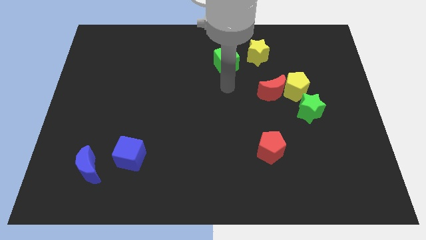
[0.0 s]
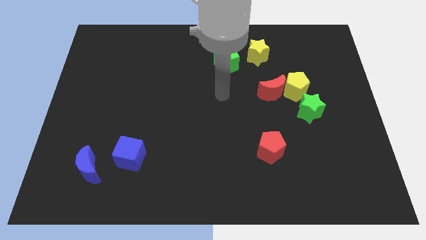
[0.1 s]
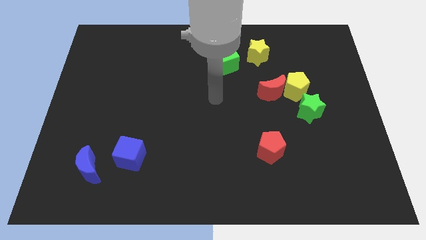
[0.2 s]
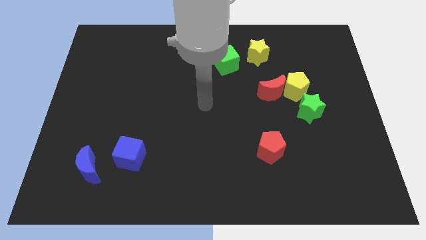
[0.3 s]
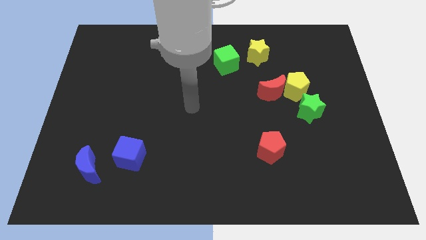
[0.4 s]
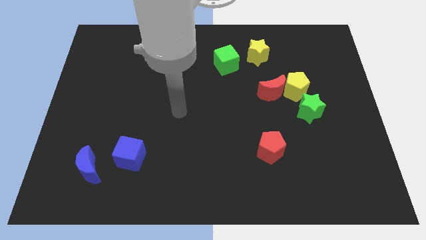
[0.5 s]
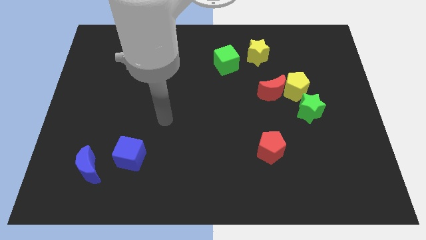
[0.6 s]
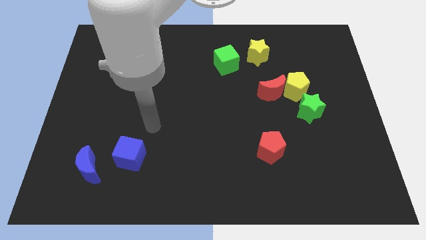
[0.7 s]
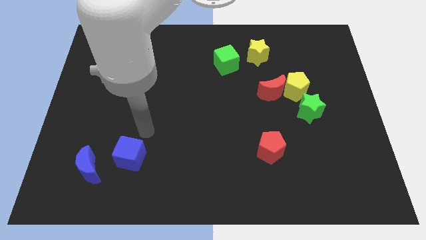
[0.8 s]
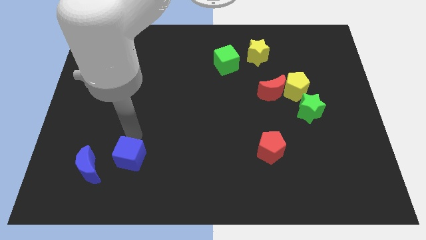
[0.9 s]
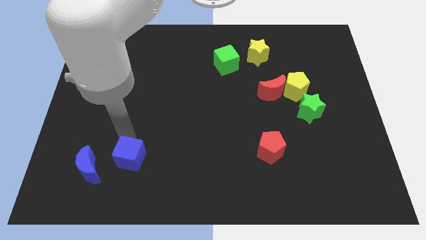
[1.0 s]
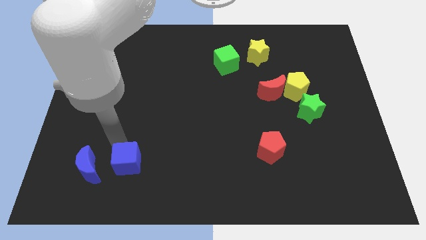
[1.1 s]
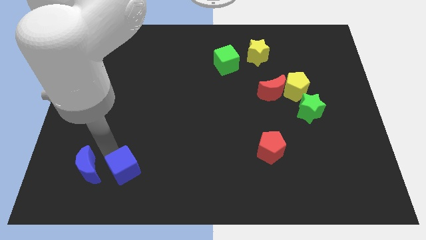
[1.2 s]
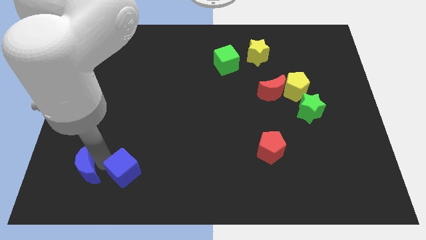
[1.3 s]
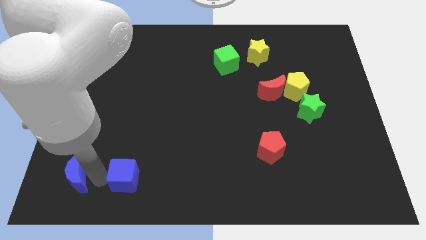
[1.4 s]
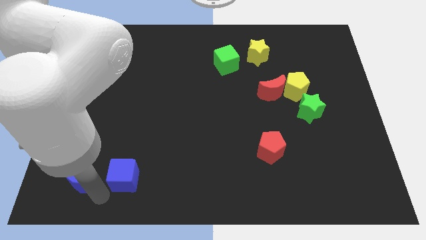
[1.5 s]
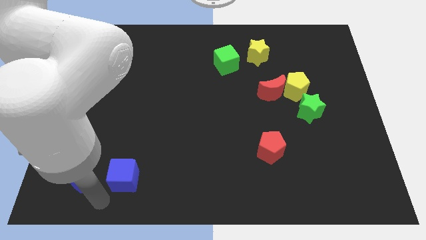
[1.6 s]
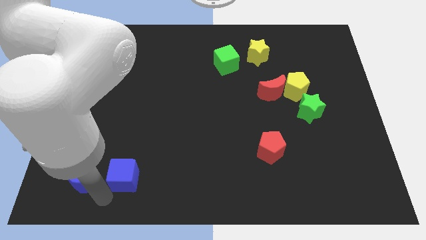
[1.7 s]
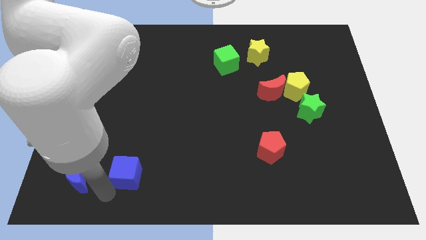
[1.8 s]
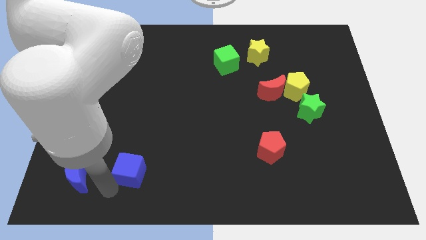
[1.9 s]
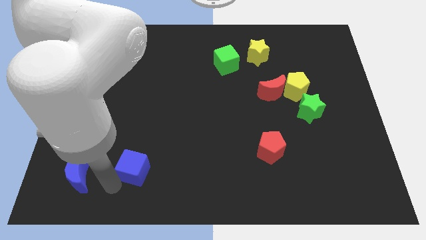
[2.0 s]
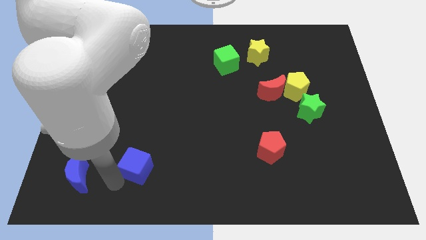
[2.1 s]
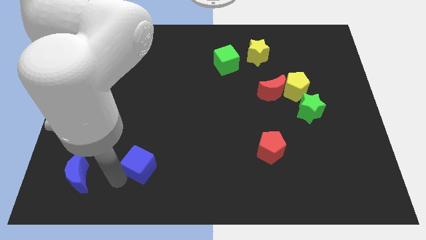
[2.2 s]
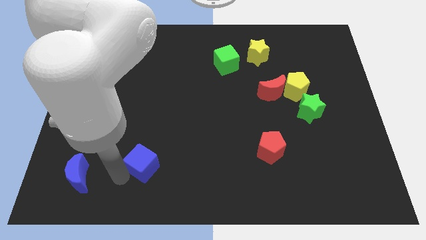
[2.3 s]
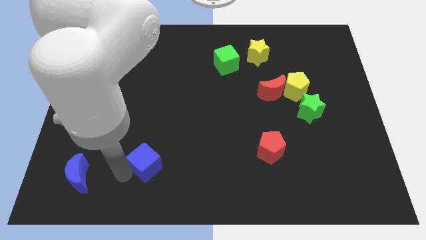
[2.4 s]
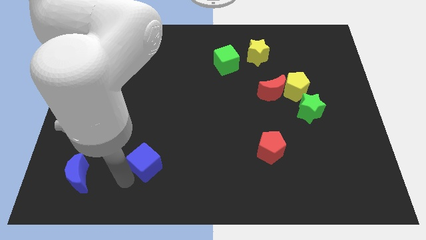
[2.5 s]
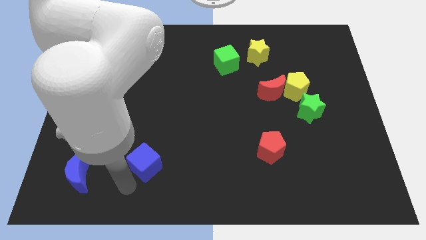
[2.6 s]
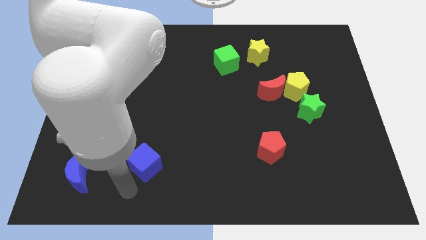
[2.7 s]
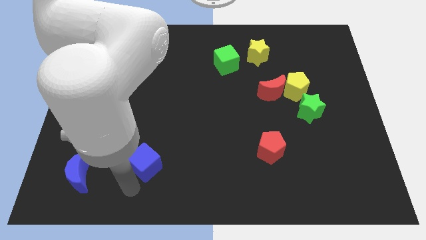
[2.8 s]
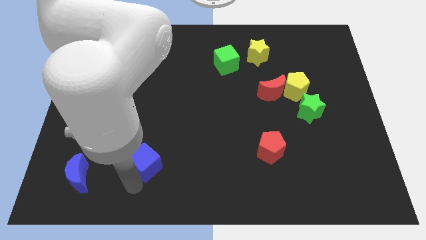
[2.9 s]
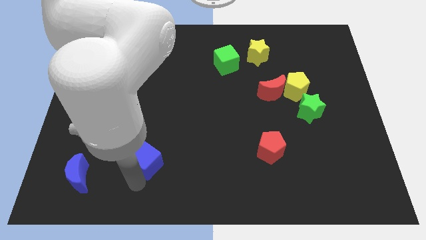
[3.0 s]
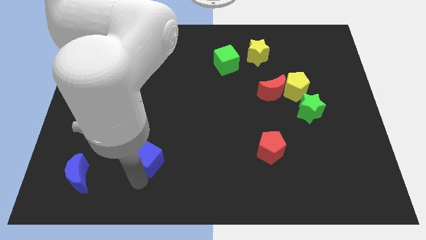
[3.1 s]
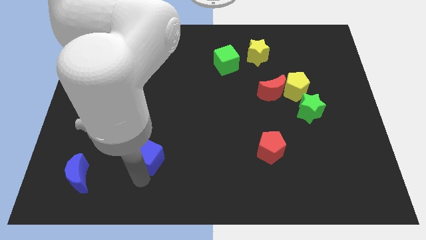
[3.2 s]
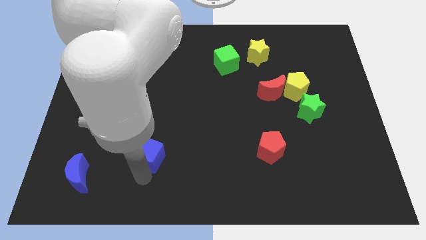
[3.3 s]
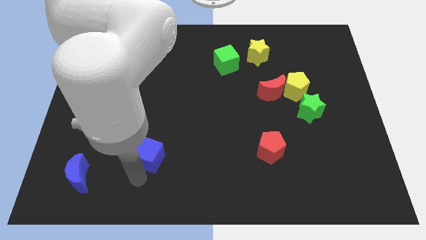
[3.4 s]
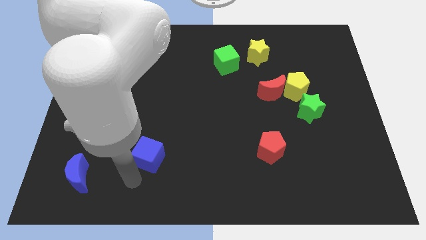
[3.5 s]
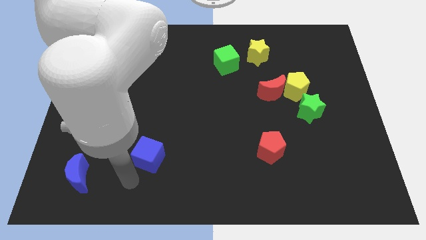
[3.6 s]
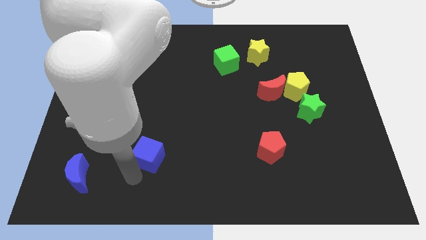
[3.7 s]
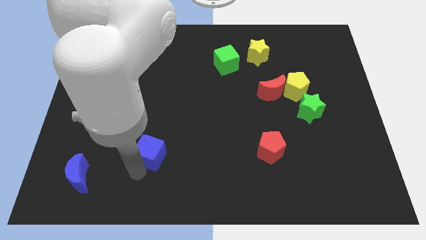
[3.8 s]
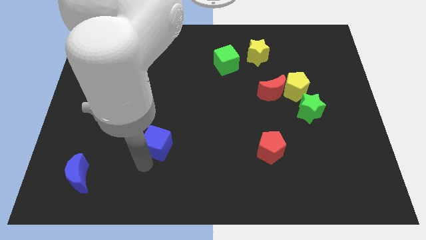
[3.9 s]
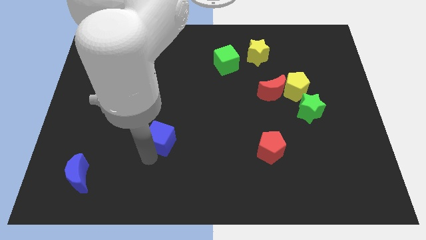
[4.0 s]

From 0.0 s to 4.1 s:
move the blue cube upwards and to the right slightly

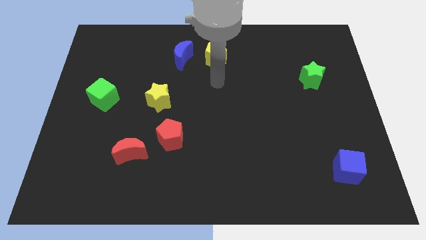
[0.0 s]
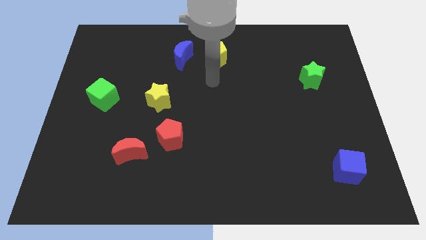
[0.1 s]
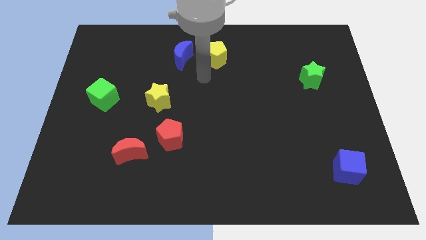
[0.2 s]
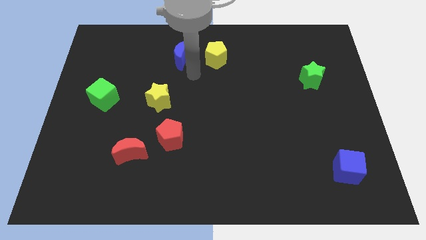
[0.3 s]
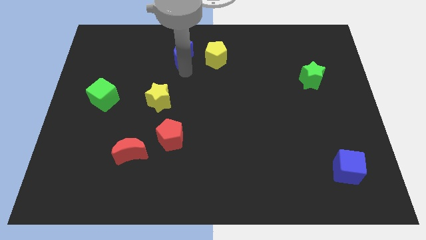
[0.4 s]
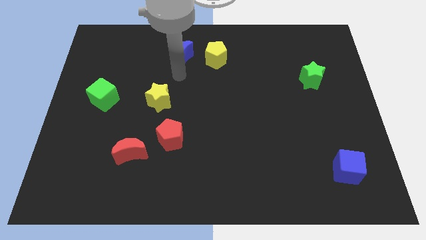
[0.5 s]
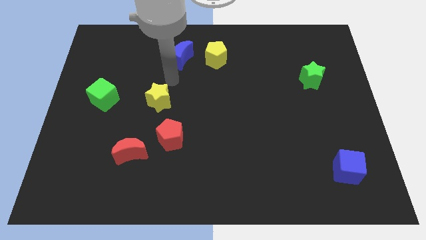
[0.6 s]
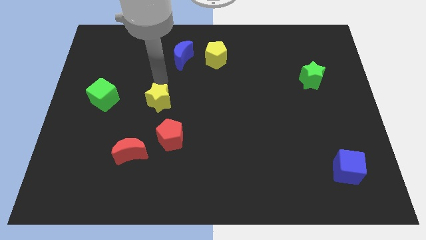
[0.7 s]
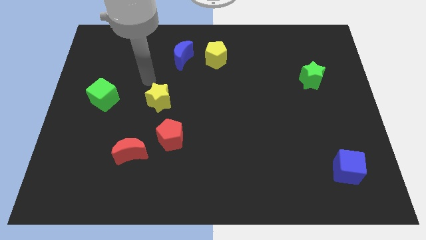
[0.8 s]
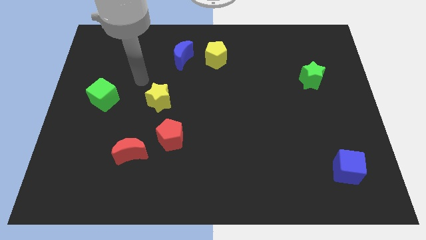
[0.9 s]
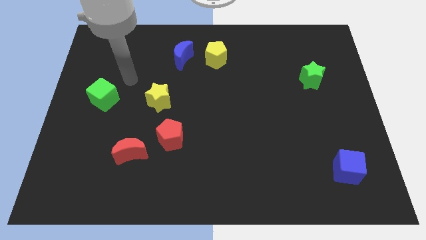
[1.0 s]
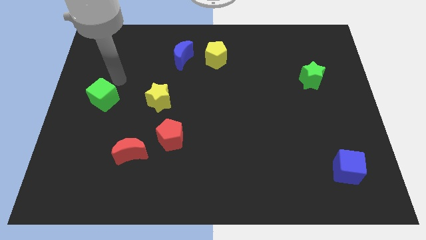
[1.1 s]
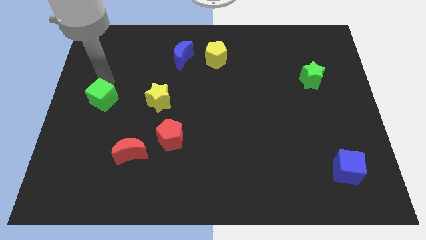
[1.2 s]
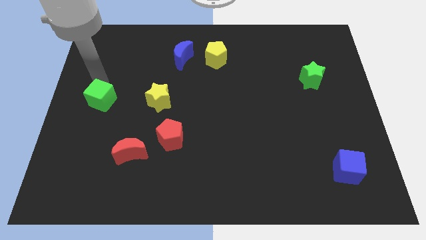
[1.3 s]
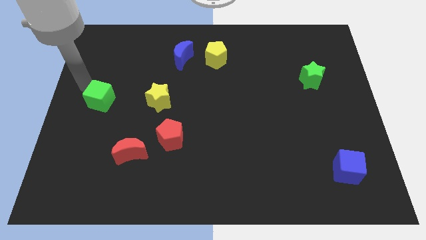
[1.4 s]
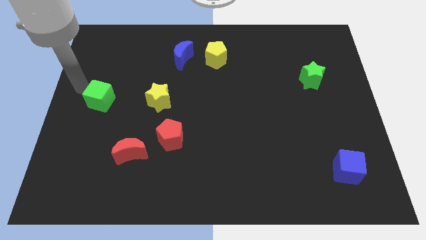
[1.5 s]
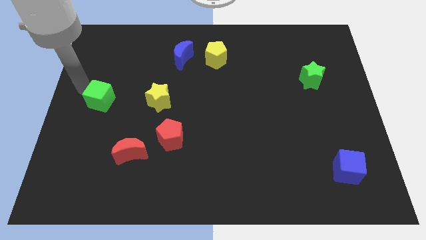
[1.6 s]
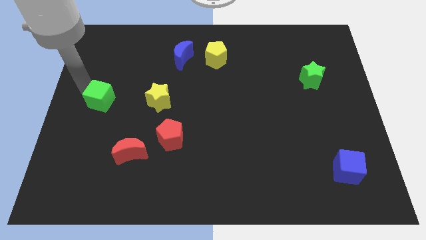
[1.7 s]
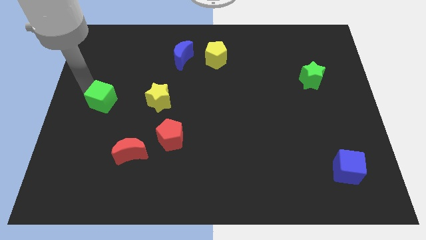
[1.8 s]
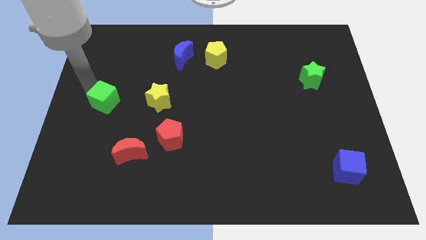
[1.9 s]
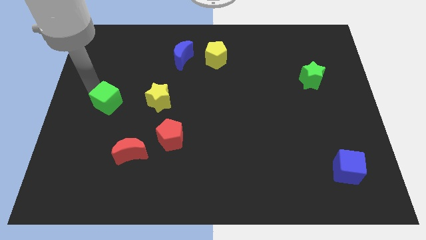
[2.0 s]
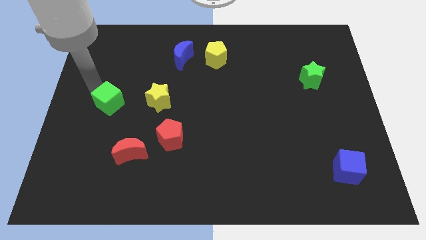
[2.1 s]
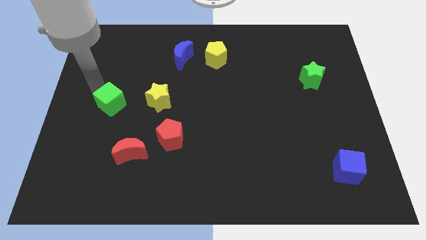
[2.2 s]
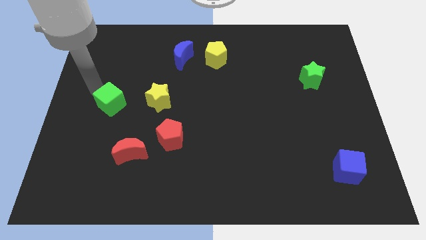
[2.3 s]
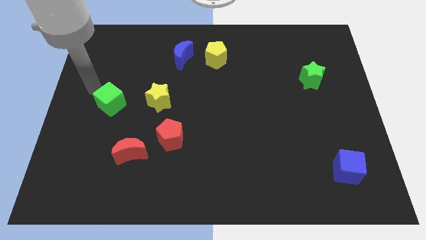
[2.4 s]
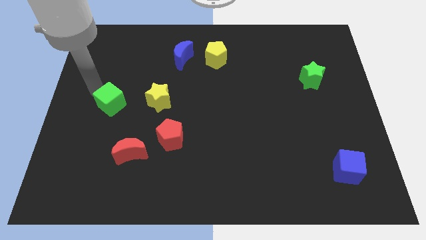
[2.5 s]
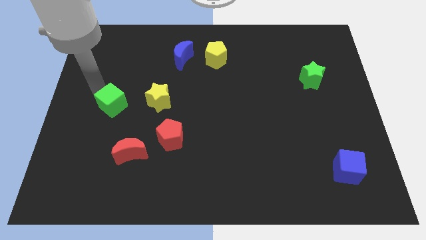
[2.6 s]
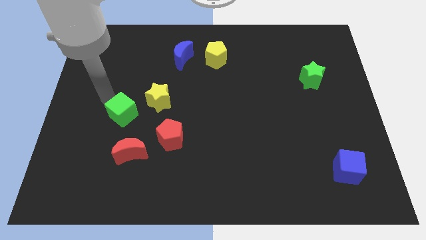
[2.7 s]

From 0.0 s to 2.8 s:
slightly slide the green cube downwards and then right

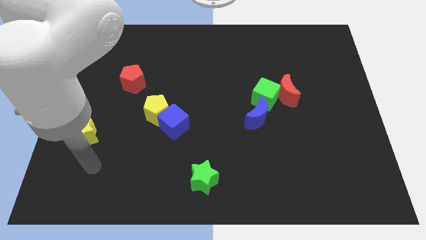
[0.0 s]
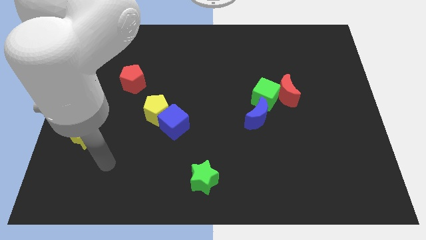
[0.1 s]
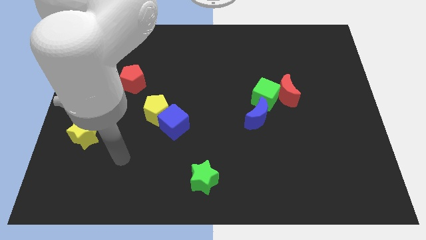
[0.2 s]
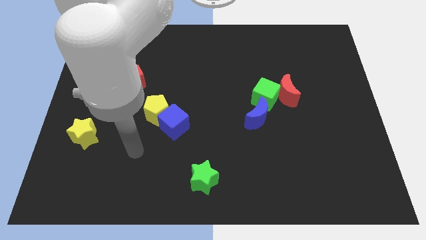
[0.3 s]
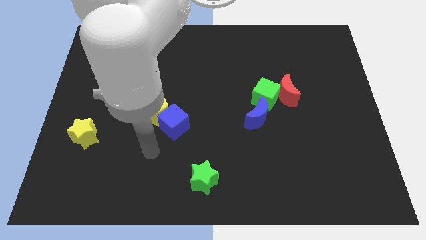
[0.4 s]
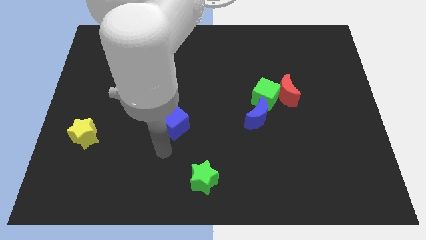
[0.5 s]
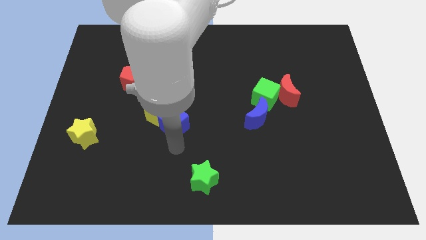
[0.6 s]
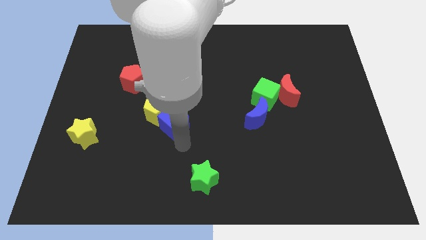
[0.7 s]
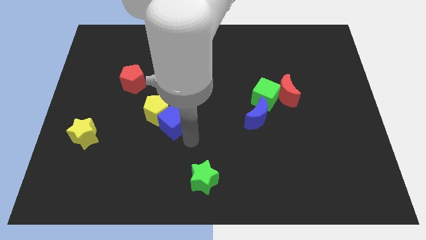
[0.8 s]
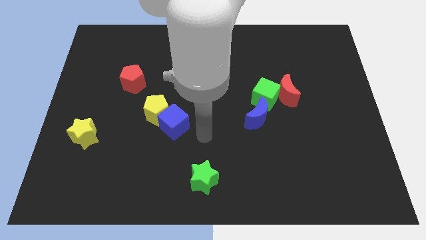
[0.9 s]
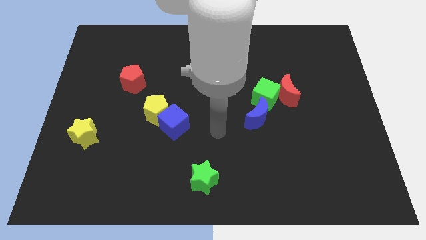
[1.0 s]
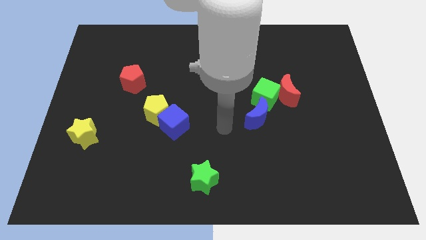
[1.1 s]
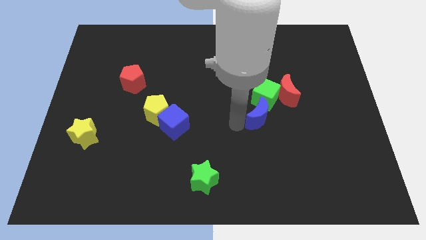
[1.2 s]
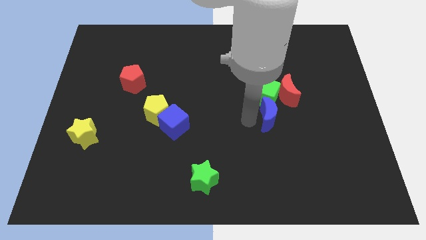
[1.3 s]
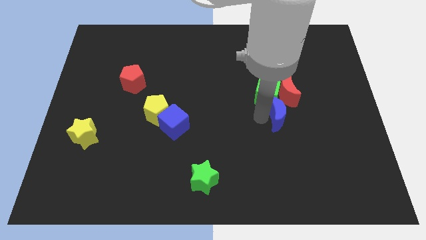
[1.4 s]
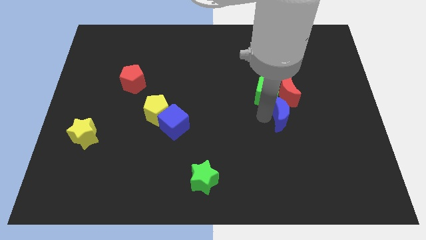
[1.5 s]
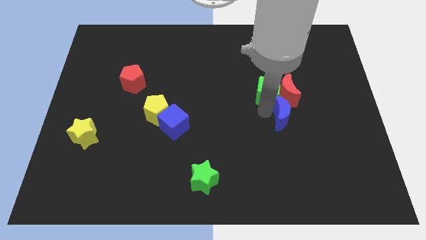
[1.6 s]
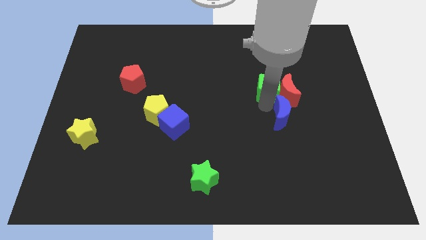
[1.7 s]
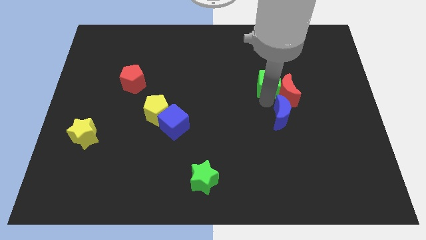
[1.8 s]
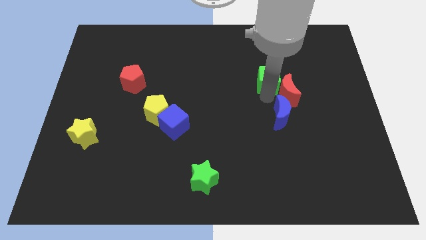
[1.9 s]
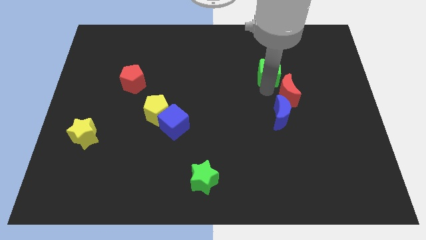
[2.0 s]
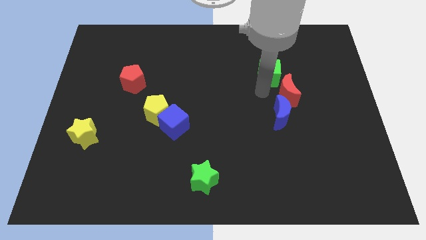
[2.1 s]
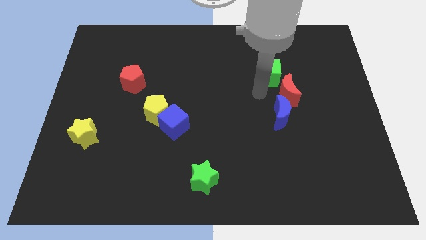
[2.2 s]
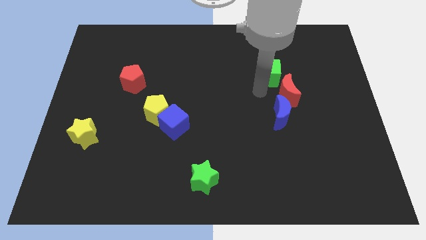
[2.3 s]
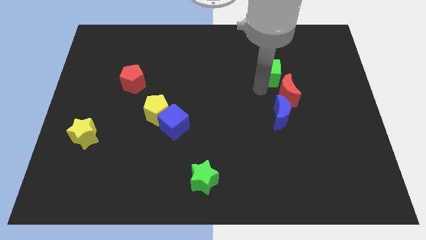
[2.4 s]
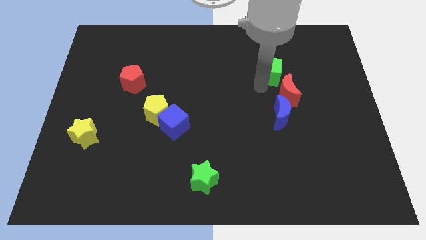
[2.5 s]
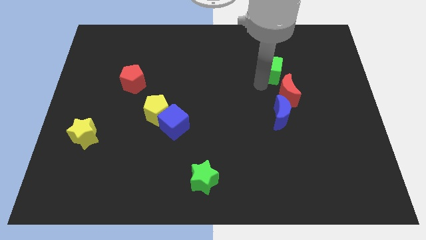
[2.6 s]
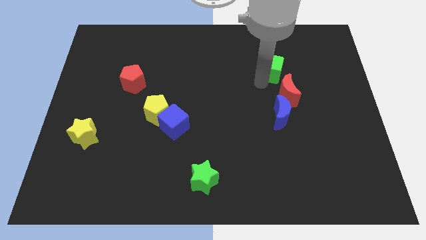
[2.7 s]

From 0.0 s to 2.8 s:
slightly slide the green cube upwards and to the right
